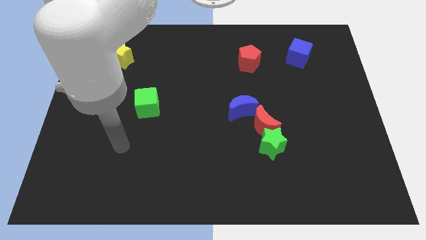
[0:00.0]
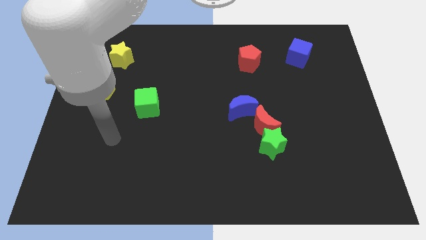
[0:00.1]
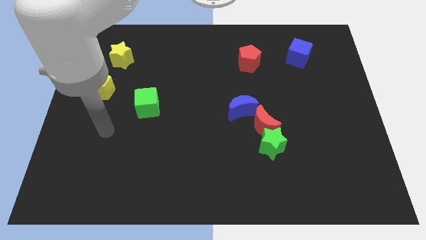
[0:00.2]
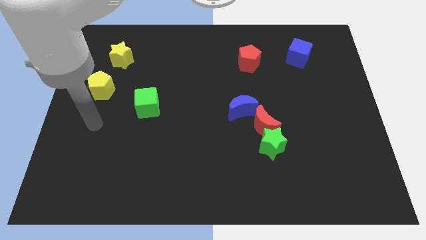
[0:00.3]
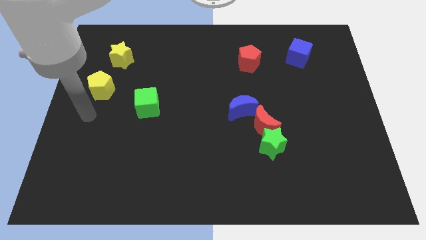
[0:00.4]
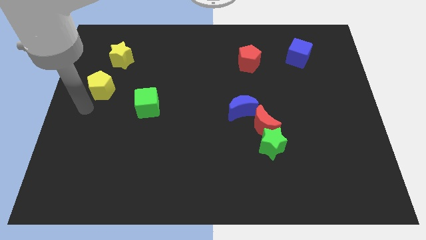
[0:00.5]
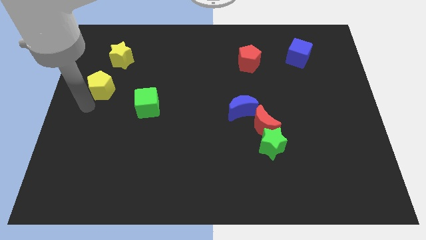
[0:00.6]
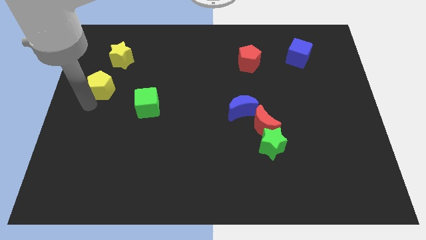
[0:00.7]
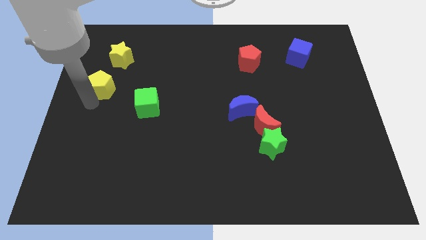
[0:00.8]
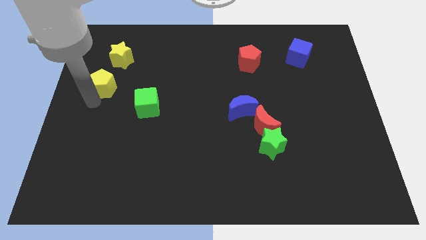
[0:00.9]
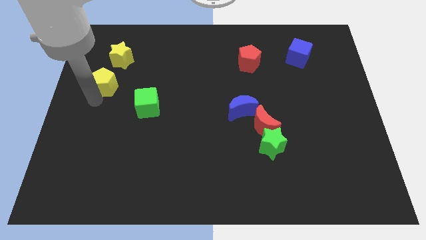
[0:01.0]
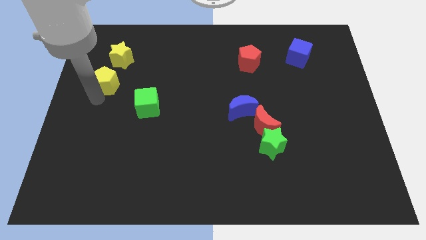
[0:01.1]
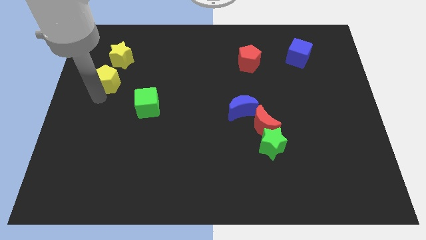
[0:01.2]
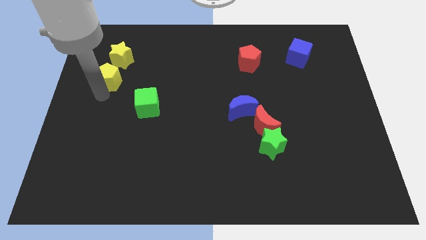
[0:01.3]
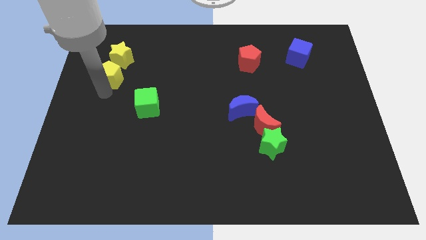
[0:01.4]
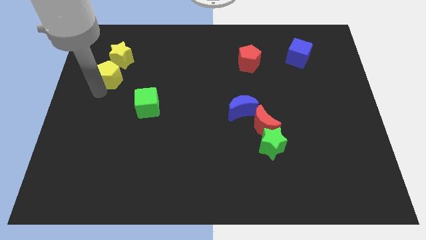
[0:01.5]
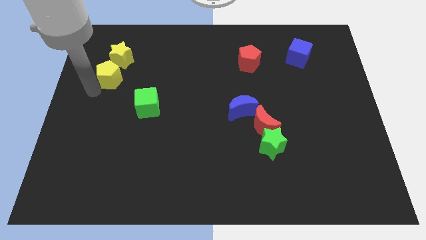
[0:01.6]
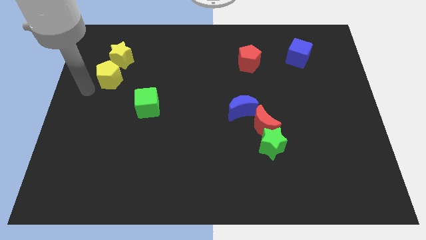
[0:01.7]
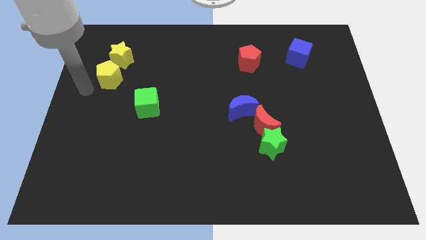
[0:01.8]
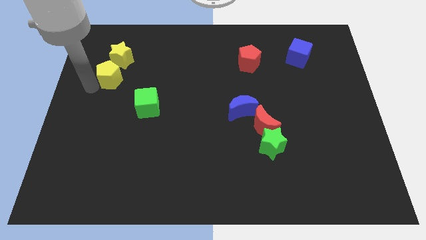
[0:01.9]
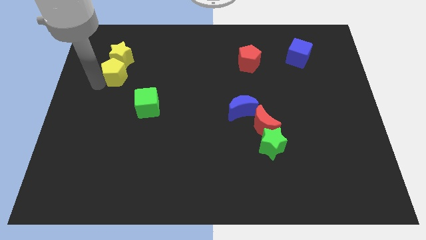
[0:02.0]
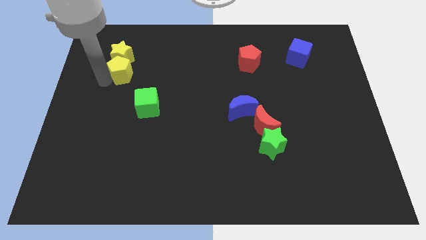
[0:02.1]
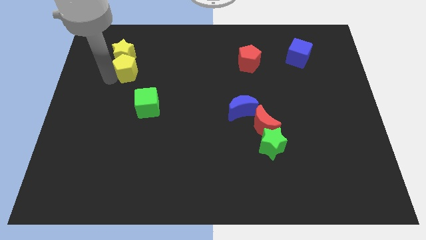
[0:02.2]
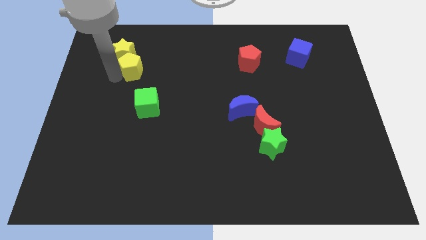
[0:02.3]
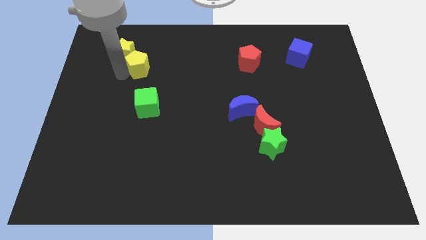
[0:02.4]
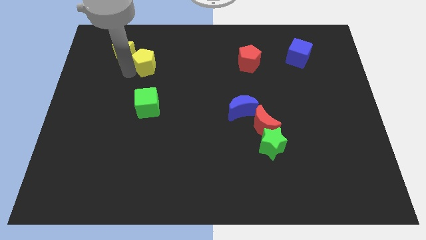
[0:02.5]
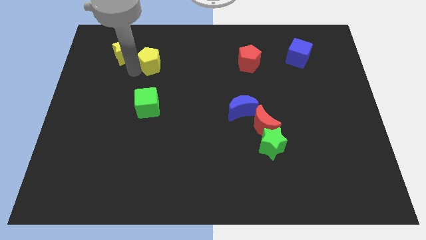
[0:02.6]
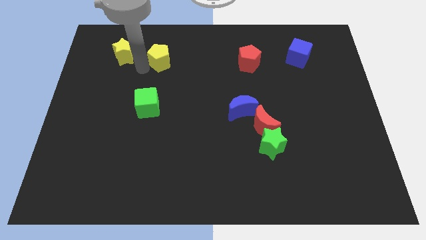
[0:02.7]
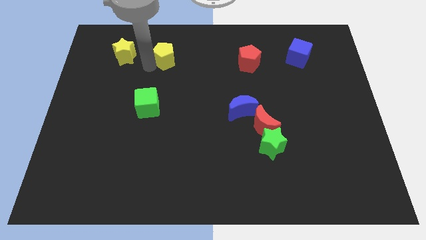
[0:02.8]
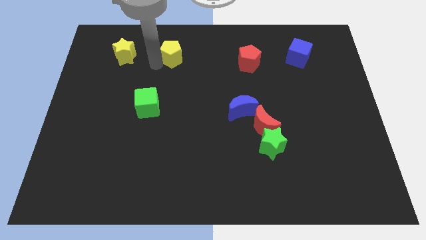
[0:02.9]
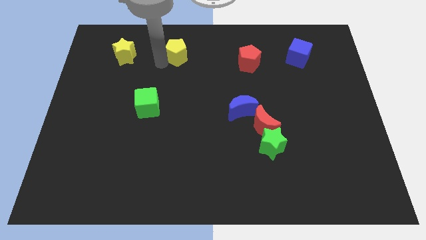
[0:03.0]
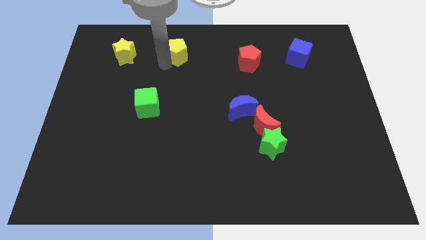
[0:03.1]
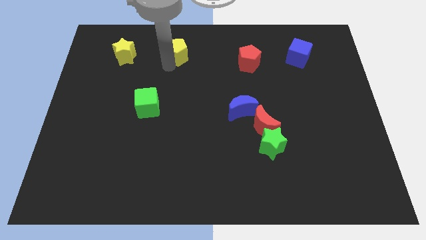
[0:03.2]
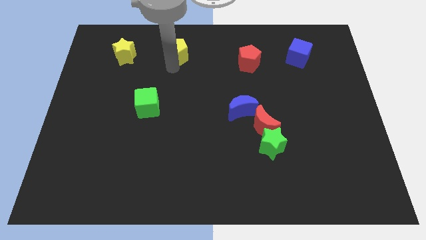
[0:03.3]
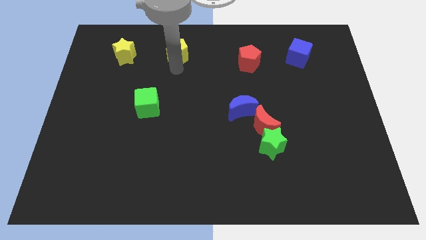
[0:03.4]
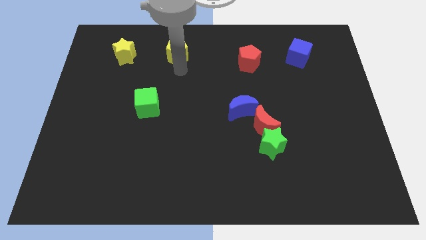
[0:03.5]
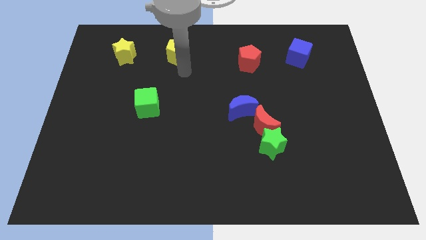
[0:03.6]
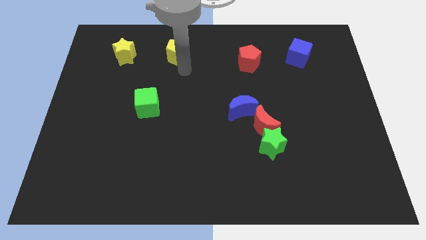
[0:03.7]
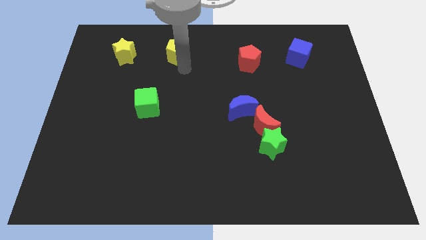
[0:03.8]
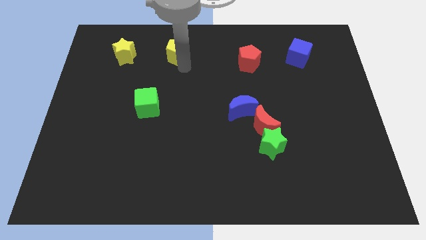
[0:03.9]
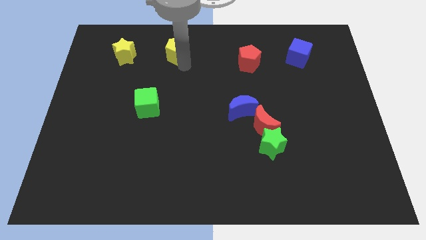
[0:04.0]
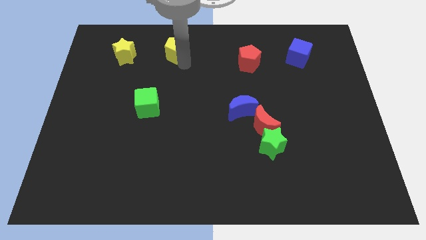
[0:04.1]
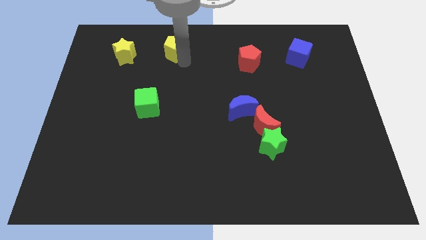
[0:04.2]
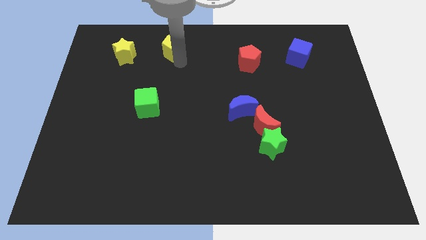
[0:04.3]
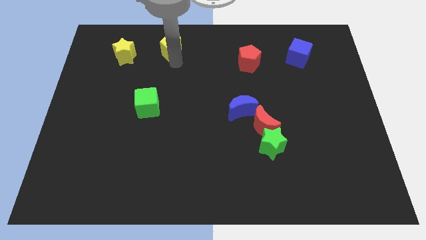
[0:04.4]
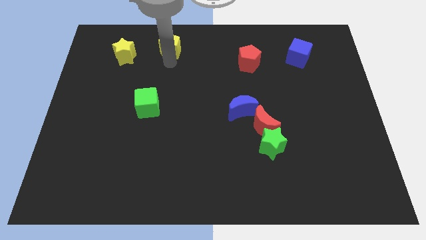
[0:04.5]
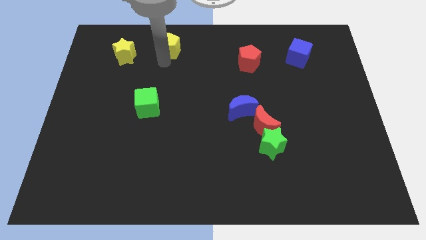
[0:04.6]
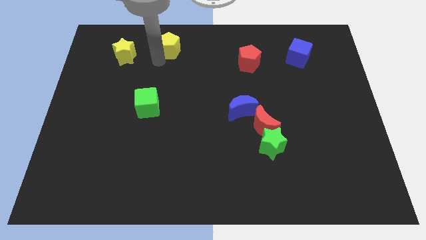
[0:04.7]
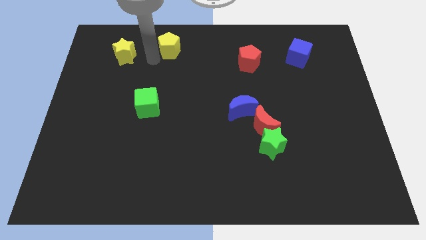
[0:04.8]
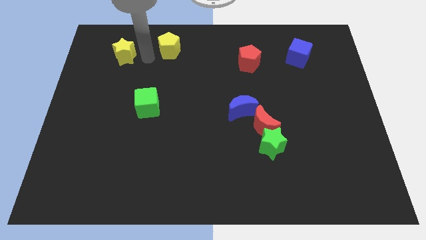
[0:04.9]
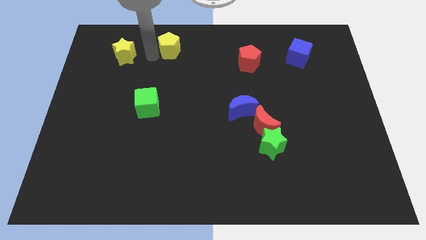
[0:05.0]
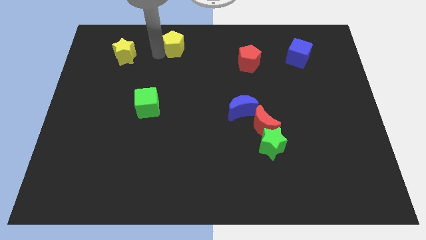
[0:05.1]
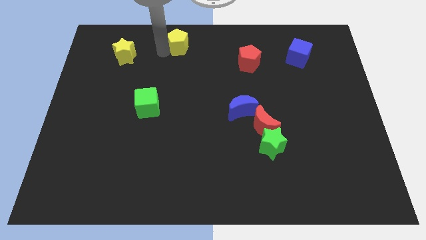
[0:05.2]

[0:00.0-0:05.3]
put the yellow pentagon to the top side

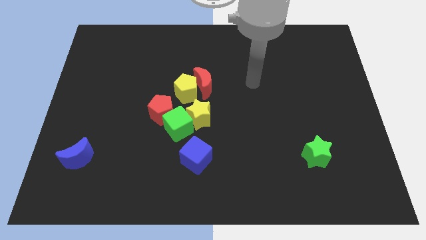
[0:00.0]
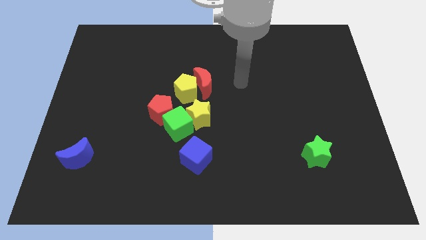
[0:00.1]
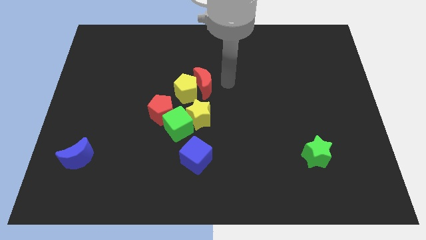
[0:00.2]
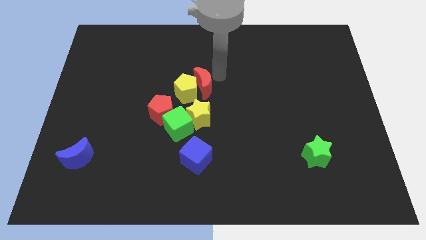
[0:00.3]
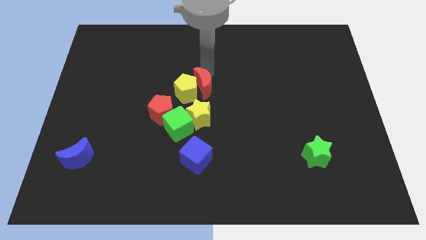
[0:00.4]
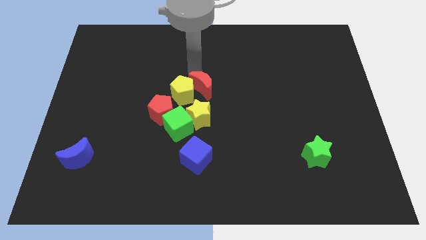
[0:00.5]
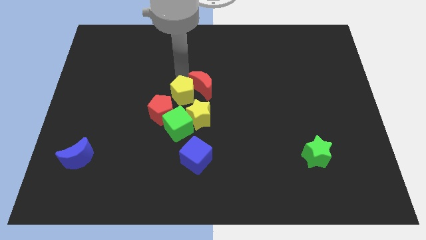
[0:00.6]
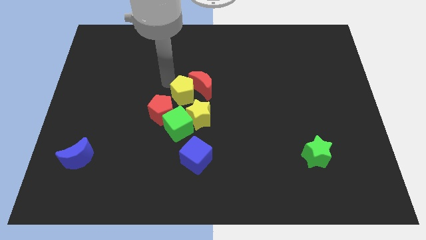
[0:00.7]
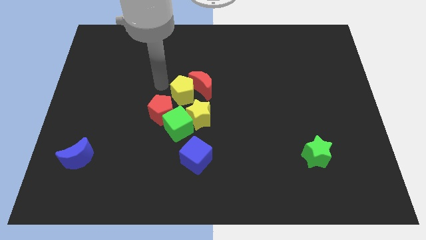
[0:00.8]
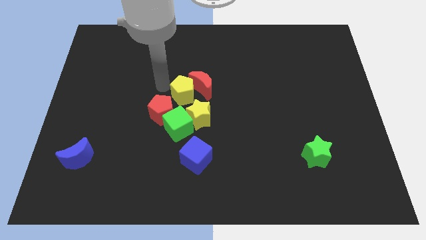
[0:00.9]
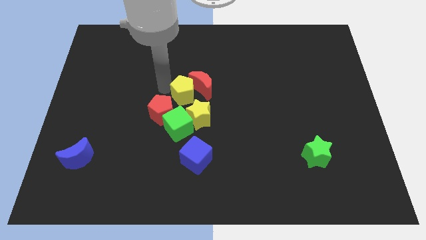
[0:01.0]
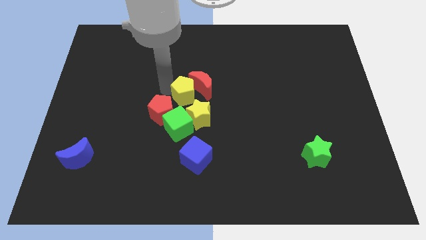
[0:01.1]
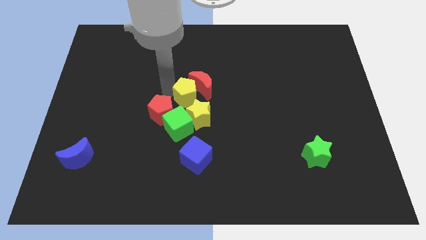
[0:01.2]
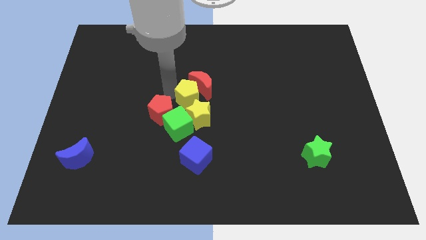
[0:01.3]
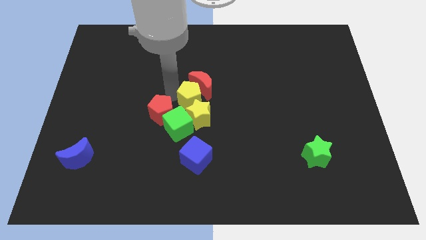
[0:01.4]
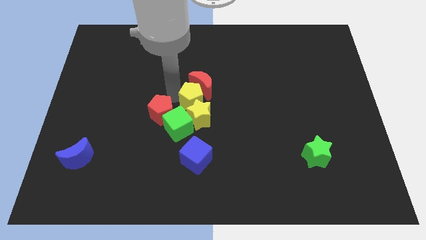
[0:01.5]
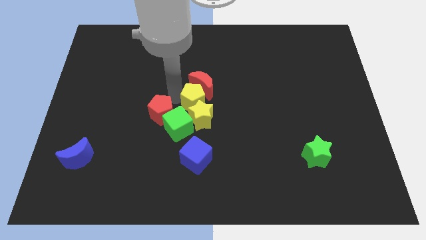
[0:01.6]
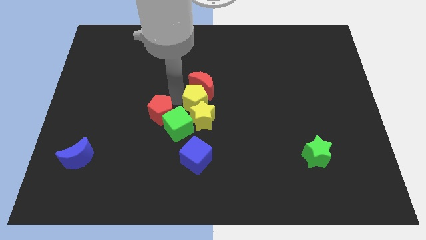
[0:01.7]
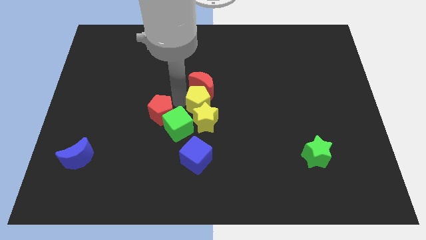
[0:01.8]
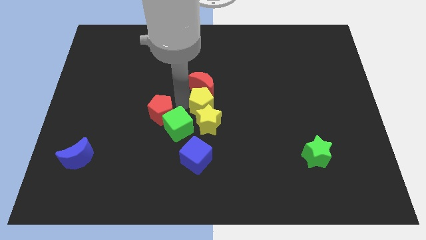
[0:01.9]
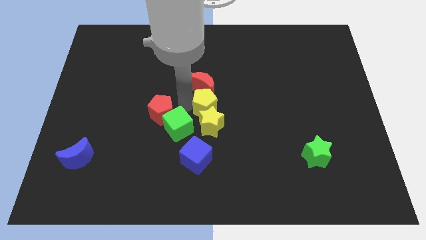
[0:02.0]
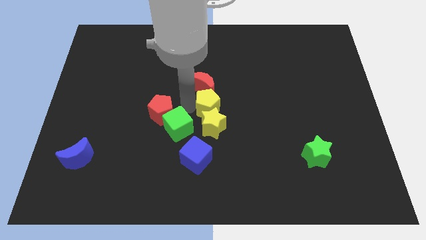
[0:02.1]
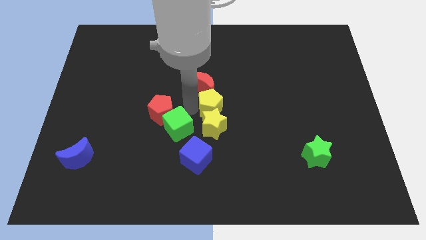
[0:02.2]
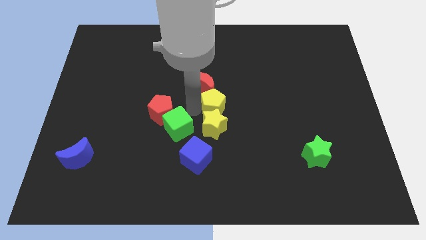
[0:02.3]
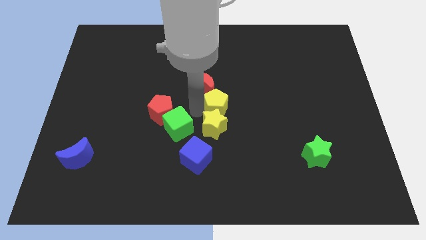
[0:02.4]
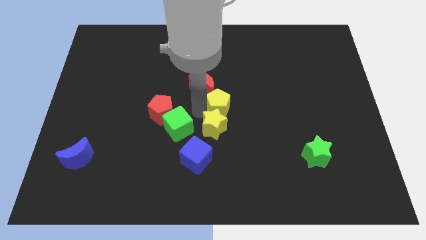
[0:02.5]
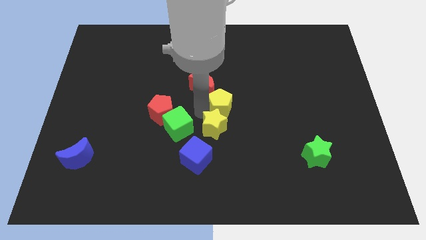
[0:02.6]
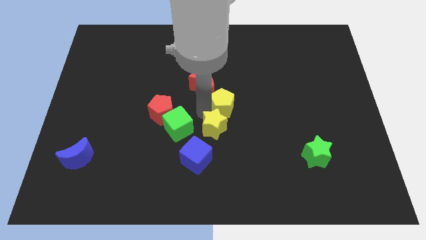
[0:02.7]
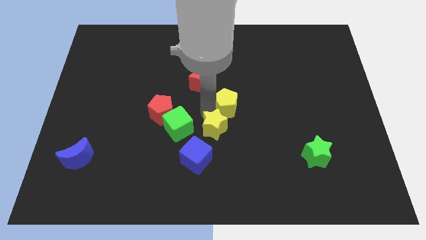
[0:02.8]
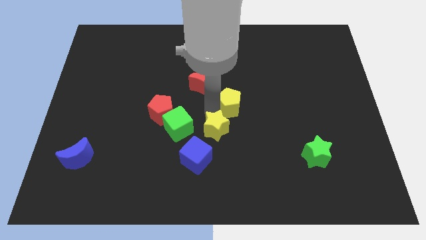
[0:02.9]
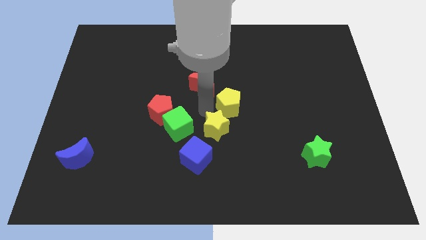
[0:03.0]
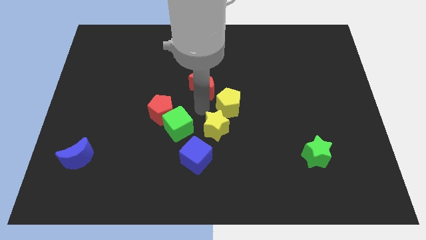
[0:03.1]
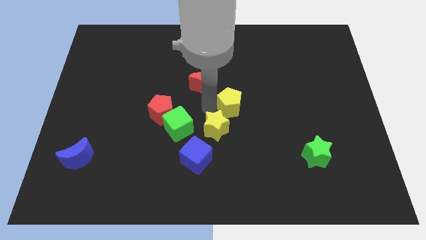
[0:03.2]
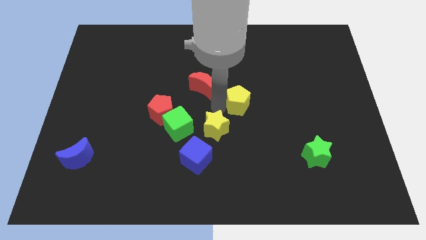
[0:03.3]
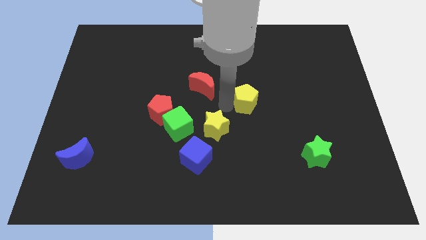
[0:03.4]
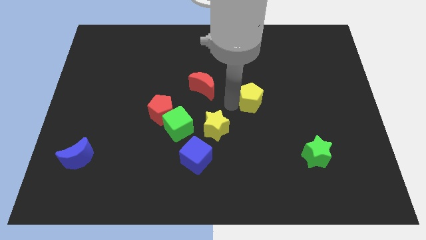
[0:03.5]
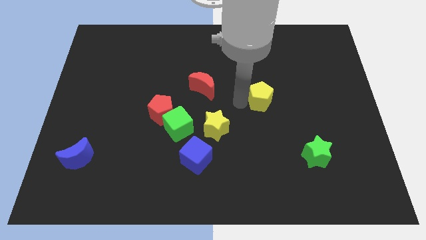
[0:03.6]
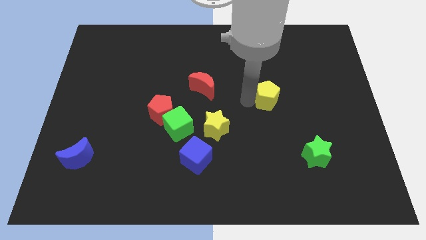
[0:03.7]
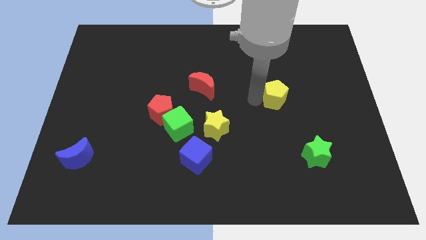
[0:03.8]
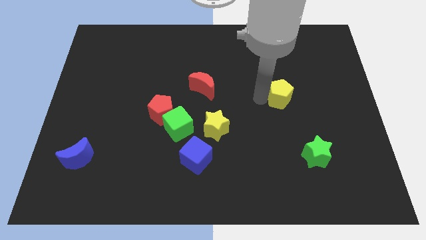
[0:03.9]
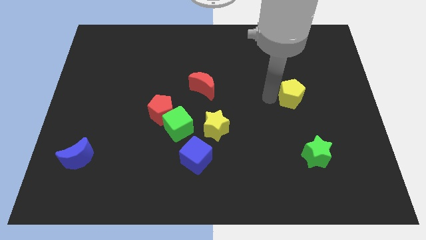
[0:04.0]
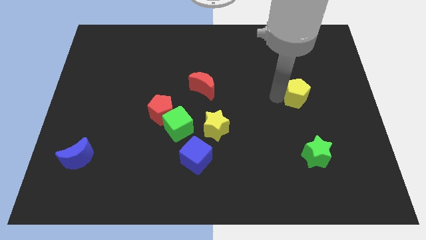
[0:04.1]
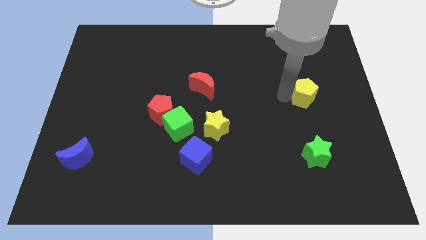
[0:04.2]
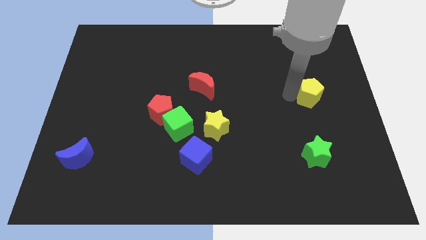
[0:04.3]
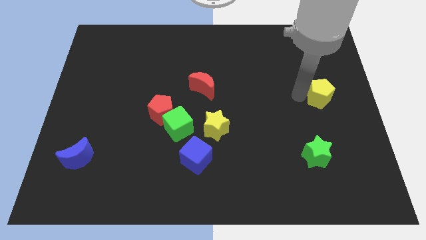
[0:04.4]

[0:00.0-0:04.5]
push the yellow pentagon to the right side
